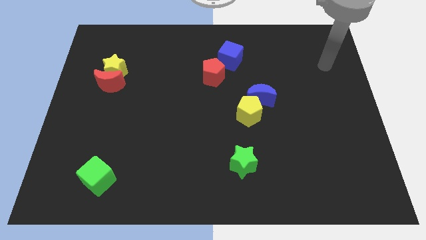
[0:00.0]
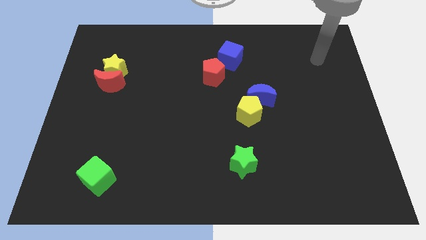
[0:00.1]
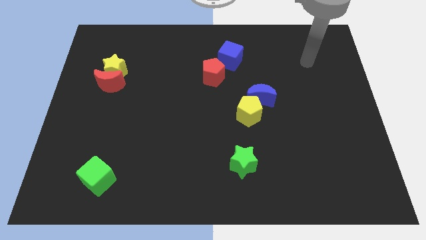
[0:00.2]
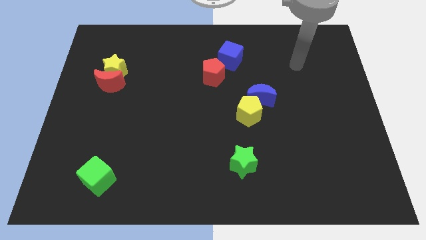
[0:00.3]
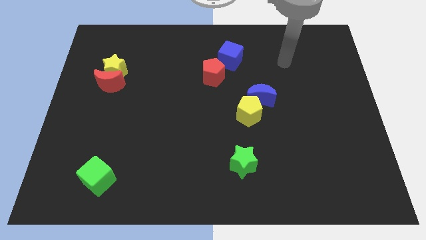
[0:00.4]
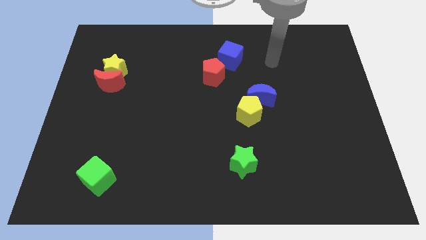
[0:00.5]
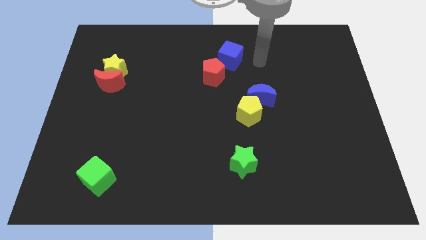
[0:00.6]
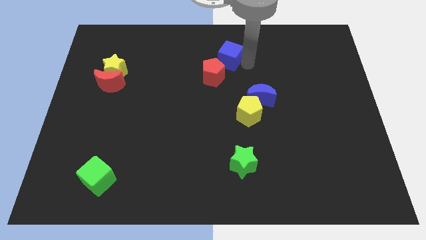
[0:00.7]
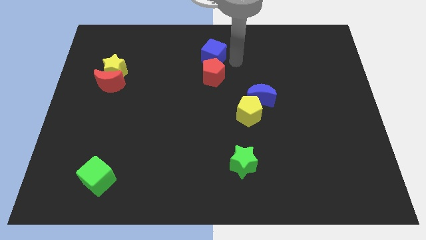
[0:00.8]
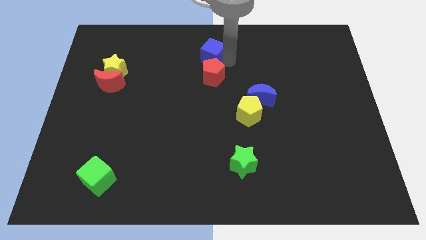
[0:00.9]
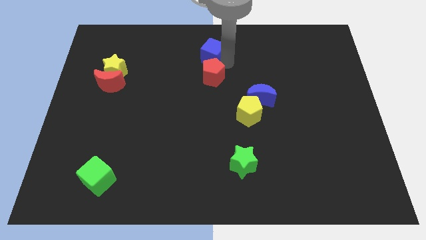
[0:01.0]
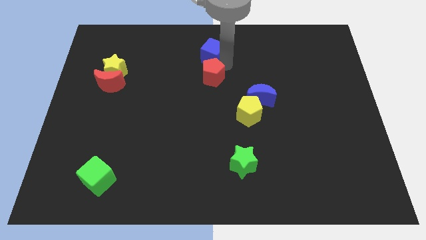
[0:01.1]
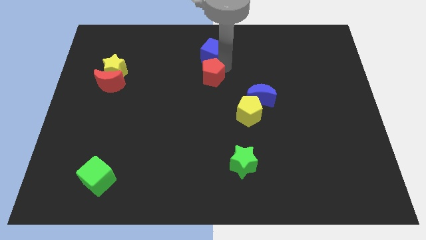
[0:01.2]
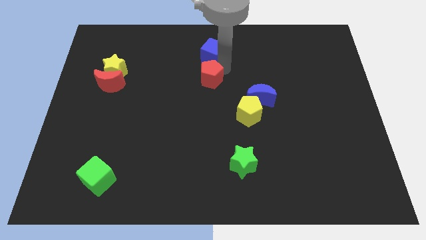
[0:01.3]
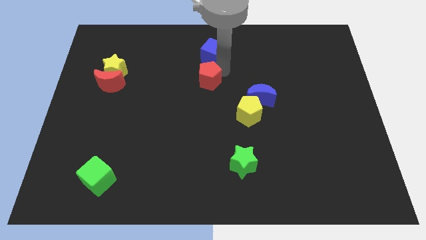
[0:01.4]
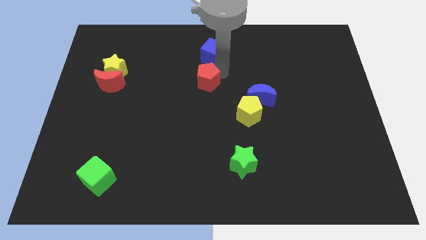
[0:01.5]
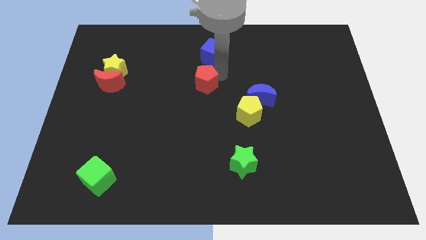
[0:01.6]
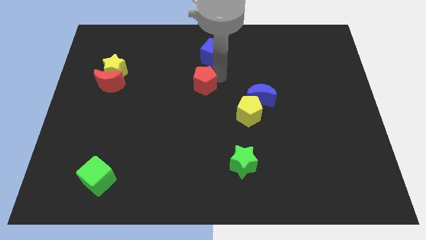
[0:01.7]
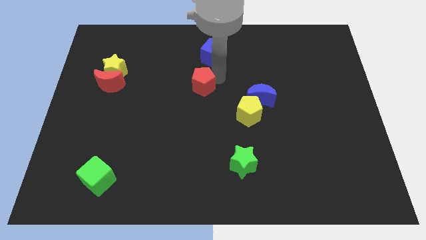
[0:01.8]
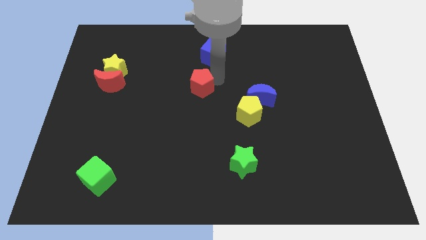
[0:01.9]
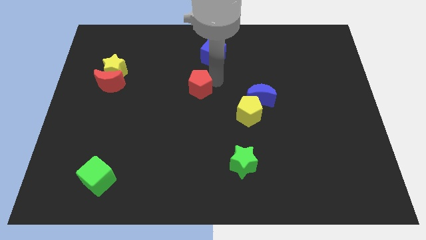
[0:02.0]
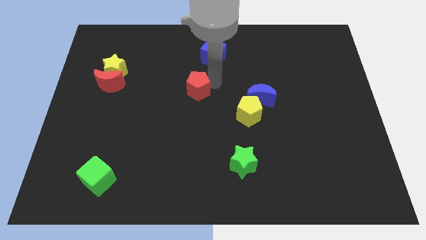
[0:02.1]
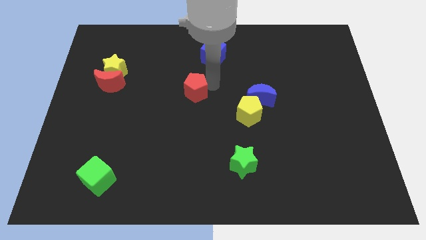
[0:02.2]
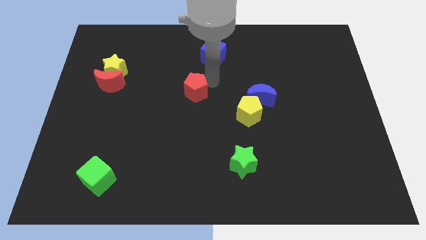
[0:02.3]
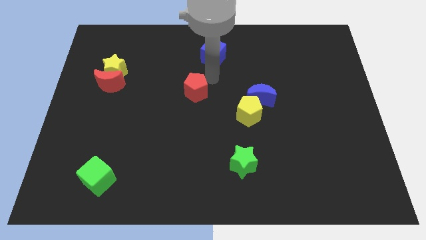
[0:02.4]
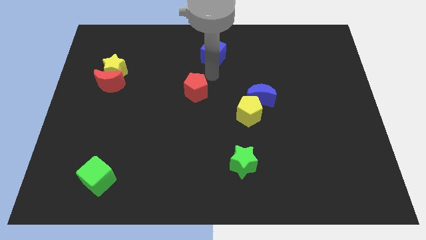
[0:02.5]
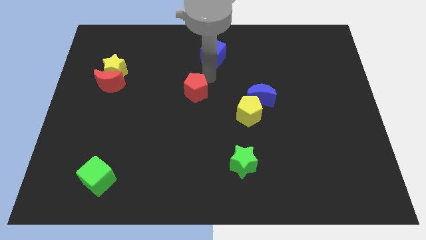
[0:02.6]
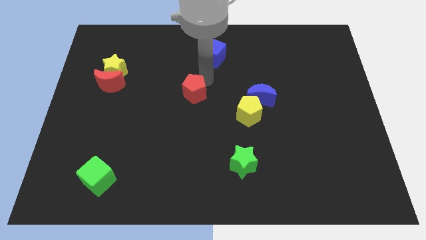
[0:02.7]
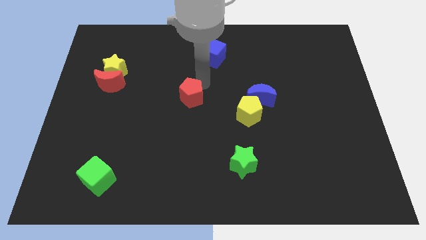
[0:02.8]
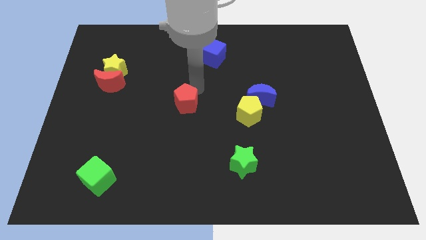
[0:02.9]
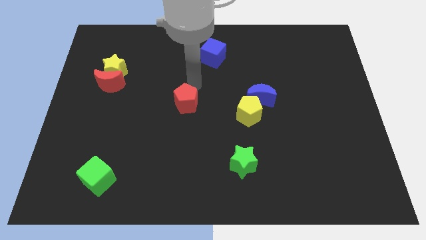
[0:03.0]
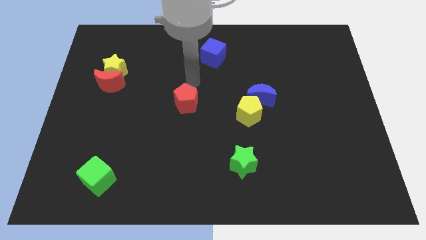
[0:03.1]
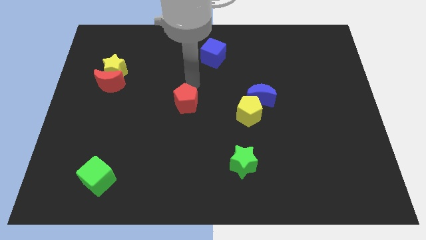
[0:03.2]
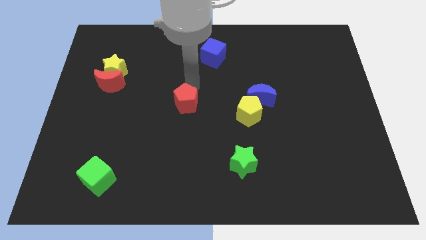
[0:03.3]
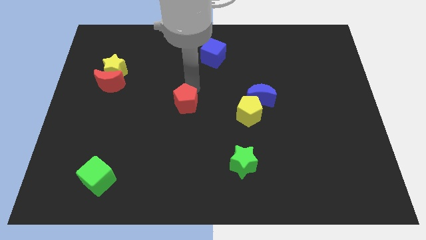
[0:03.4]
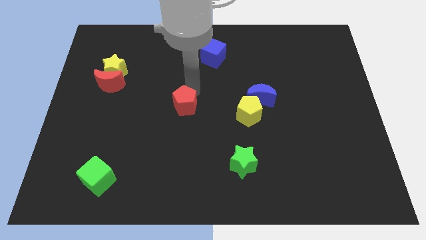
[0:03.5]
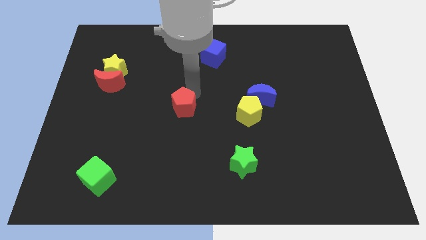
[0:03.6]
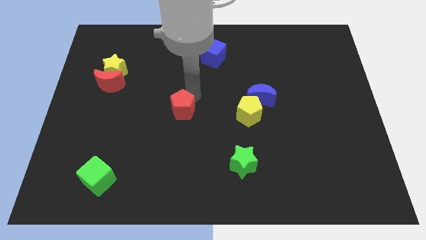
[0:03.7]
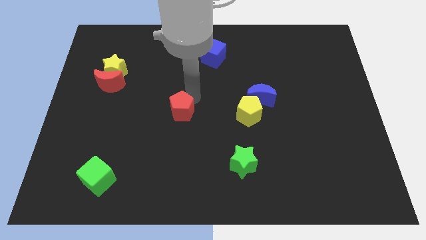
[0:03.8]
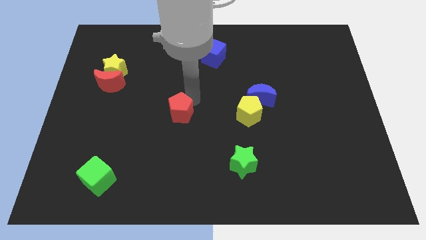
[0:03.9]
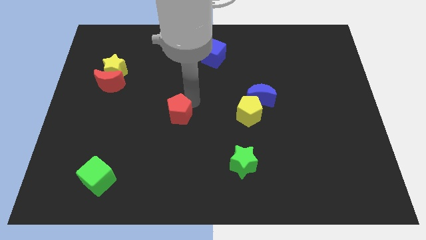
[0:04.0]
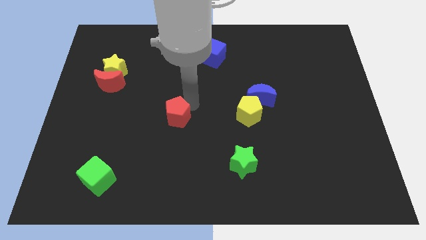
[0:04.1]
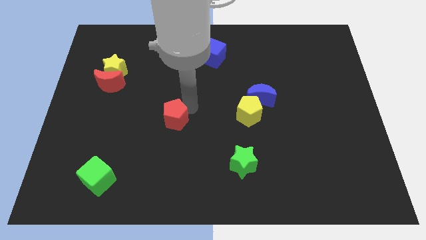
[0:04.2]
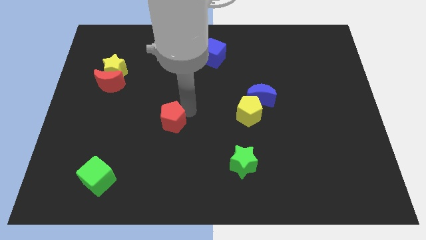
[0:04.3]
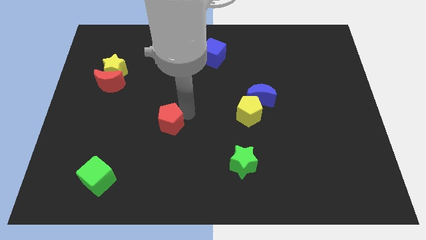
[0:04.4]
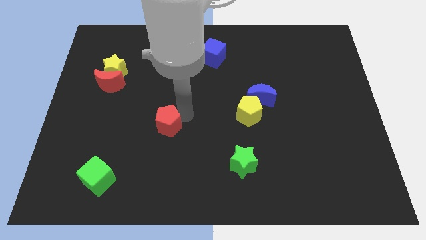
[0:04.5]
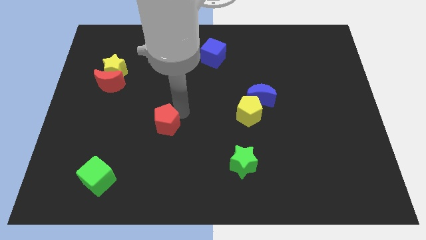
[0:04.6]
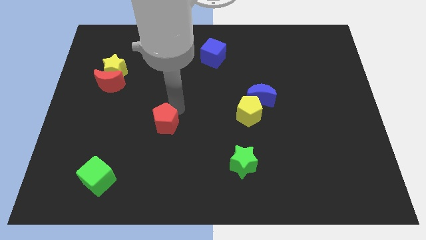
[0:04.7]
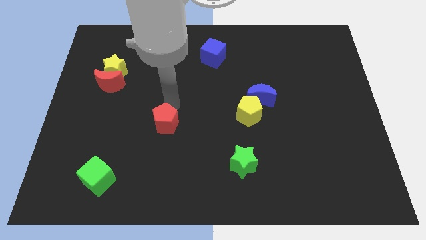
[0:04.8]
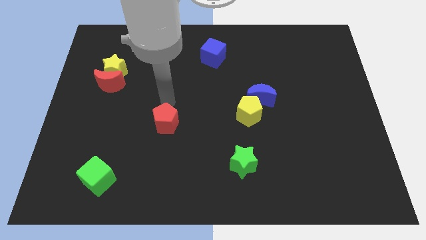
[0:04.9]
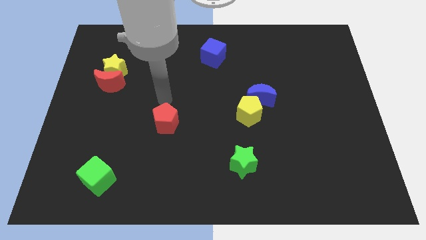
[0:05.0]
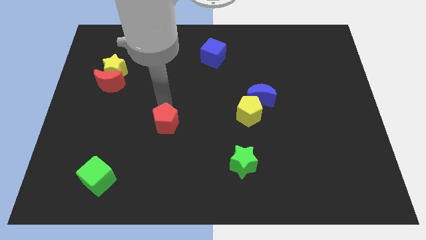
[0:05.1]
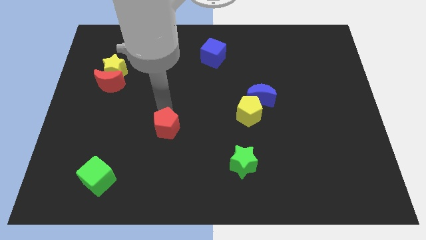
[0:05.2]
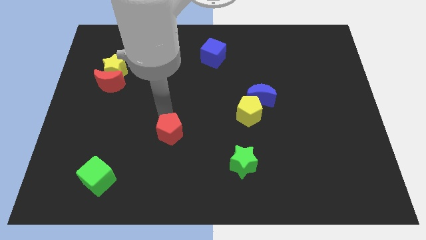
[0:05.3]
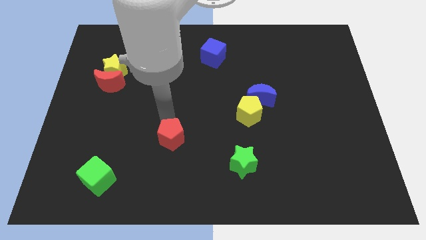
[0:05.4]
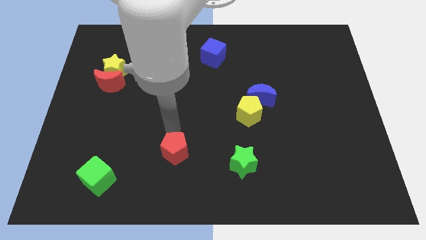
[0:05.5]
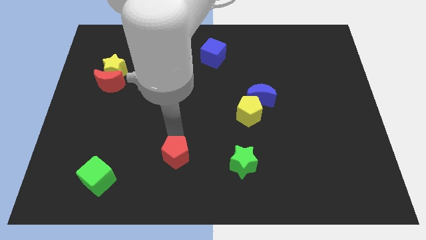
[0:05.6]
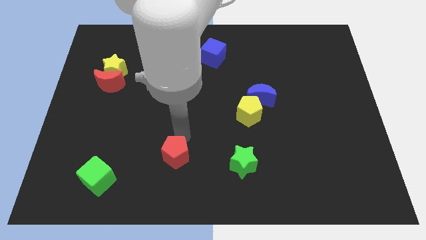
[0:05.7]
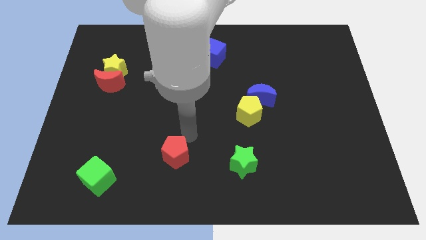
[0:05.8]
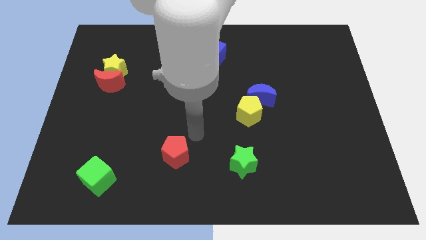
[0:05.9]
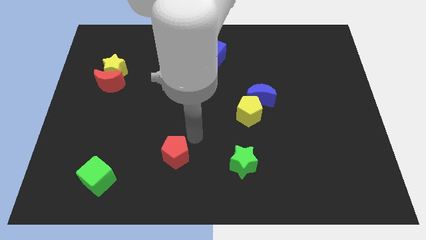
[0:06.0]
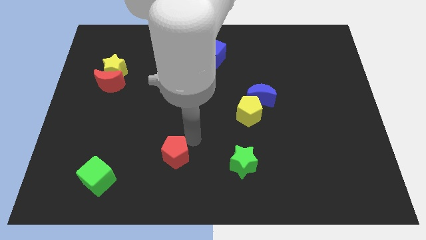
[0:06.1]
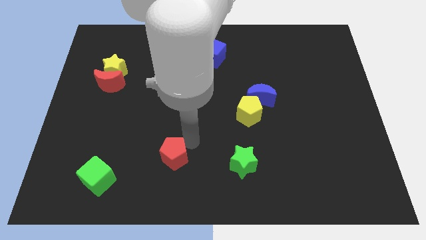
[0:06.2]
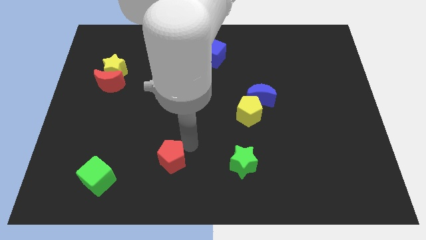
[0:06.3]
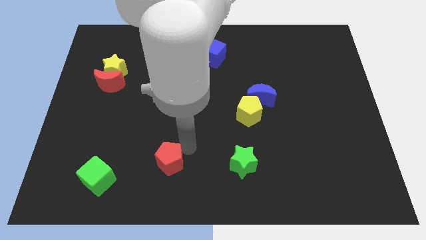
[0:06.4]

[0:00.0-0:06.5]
slide the red pentagon to the right of the green cube
